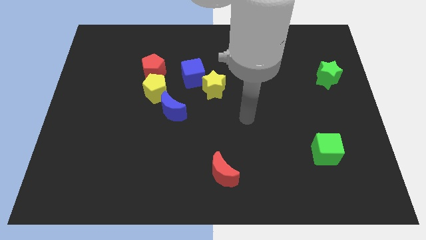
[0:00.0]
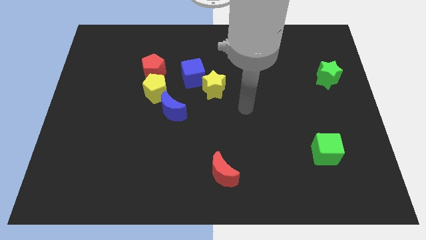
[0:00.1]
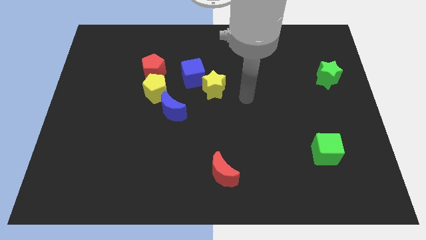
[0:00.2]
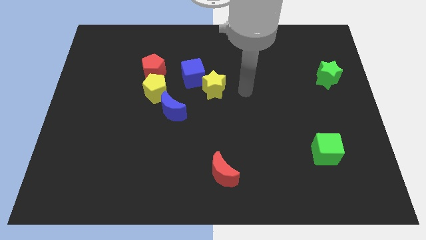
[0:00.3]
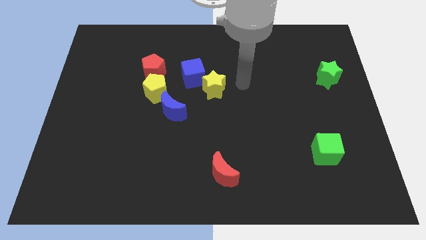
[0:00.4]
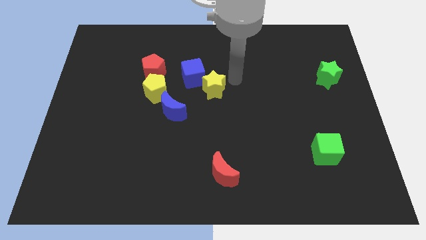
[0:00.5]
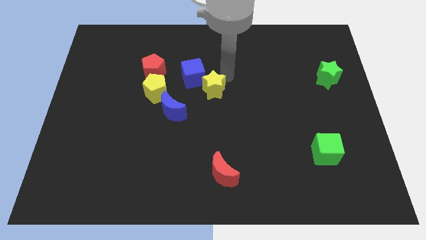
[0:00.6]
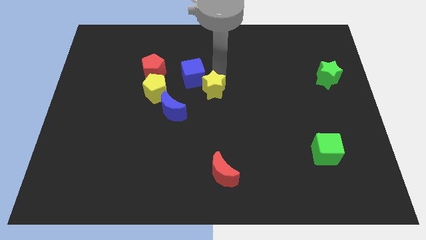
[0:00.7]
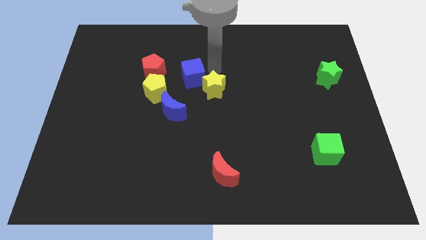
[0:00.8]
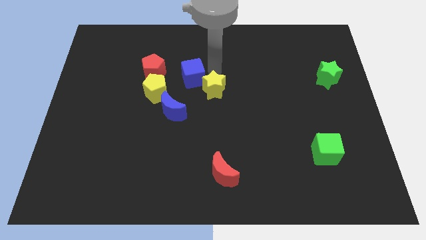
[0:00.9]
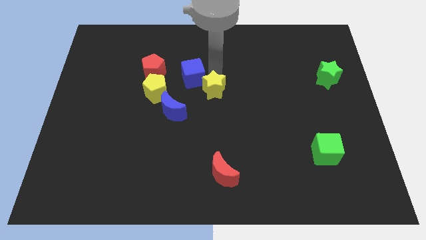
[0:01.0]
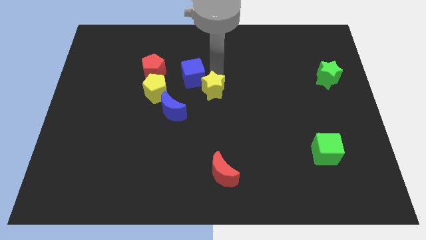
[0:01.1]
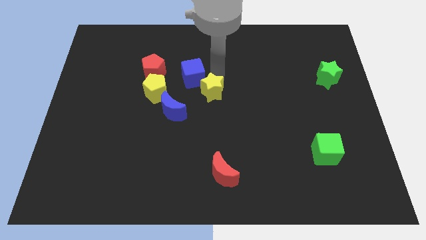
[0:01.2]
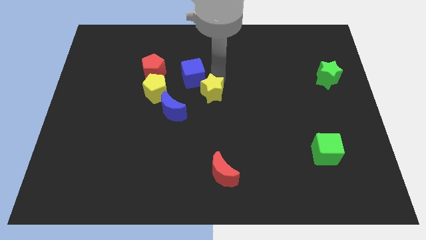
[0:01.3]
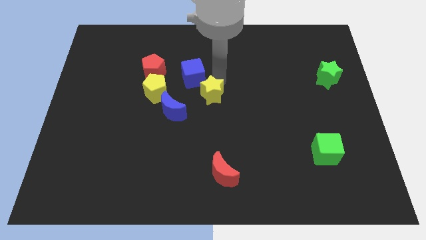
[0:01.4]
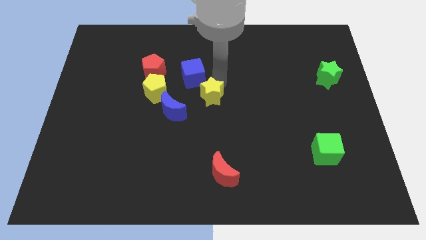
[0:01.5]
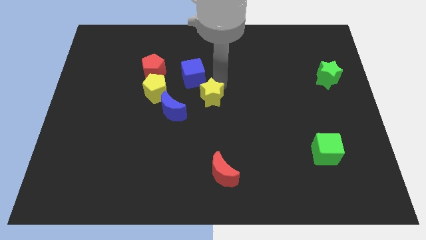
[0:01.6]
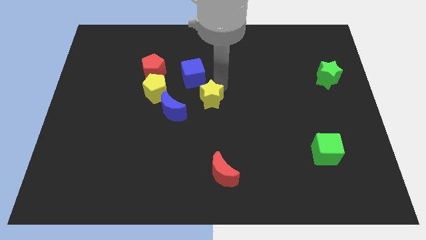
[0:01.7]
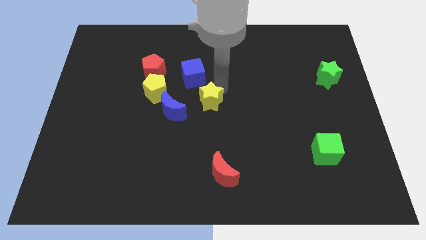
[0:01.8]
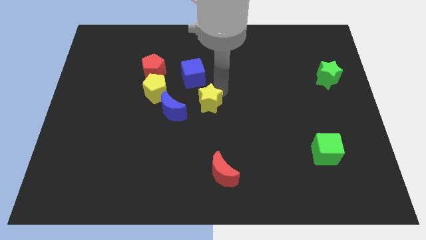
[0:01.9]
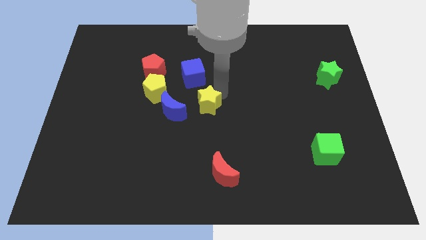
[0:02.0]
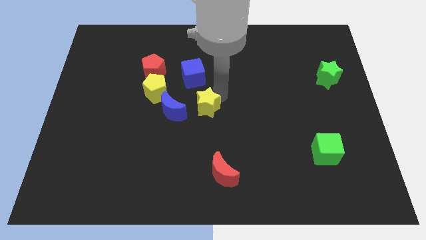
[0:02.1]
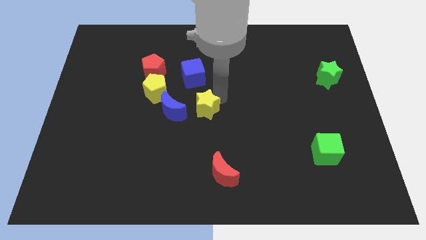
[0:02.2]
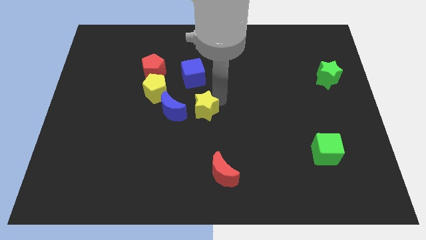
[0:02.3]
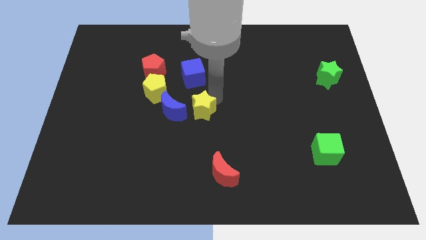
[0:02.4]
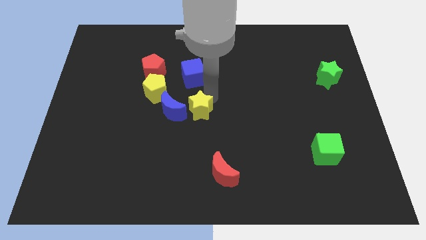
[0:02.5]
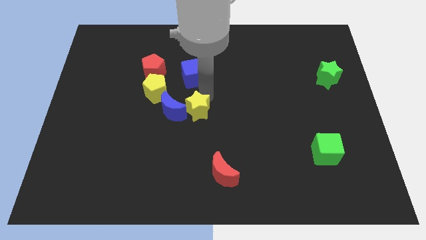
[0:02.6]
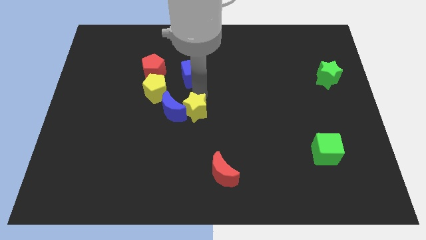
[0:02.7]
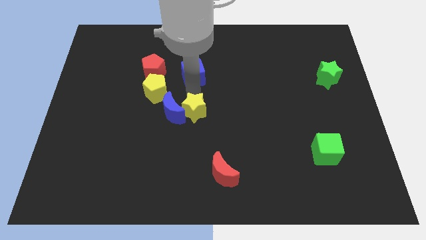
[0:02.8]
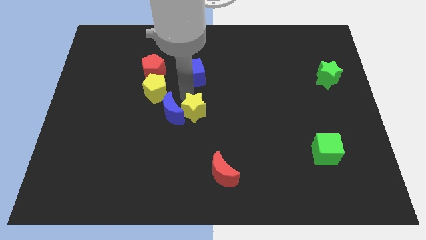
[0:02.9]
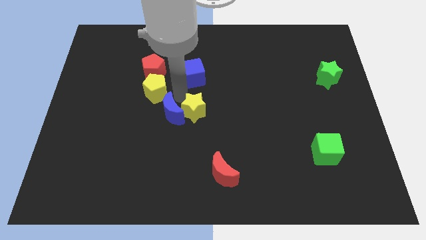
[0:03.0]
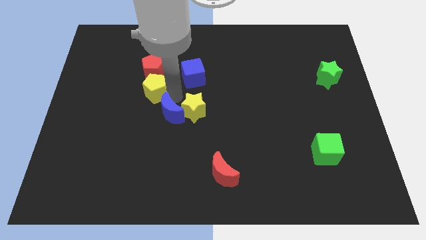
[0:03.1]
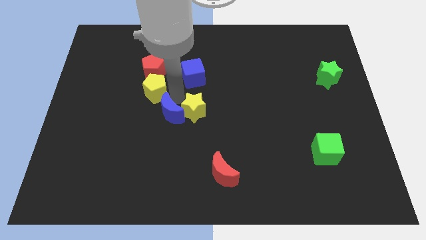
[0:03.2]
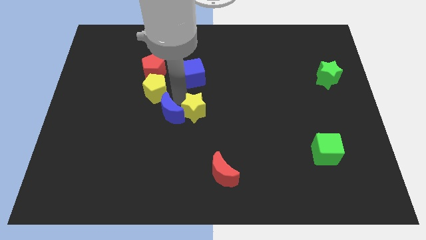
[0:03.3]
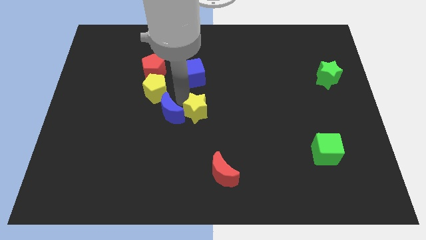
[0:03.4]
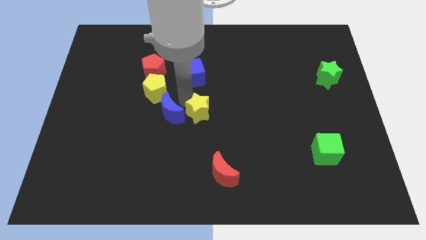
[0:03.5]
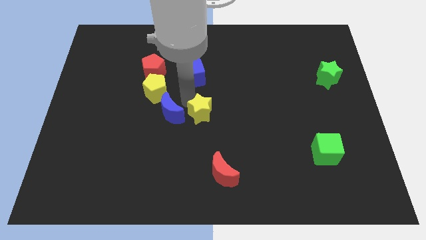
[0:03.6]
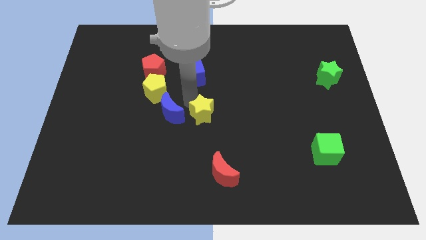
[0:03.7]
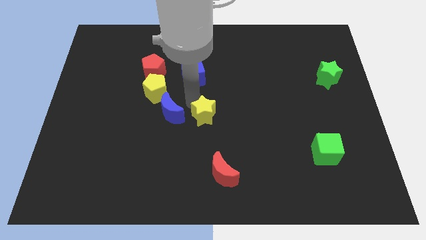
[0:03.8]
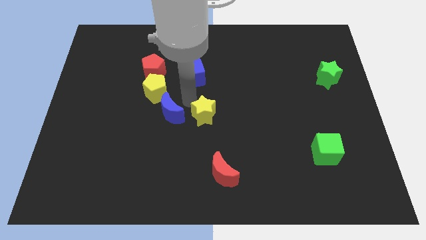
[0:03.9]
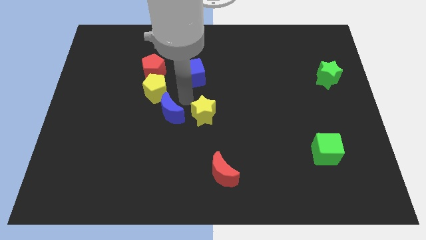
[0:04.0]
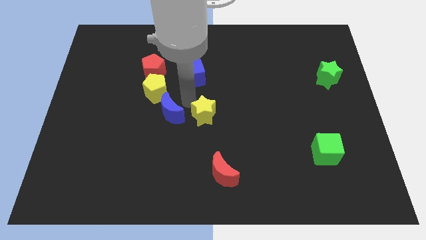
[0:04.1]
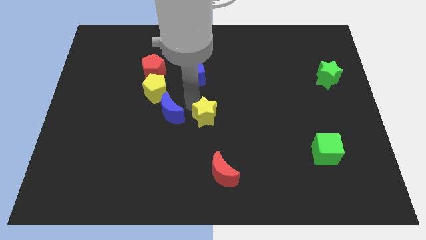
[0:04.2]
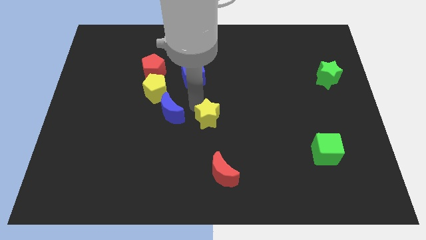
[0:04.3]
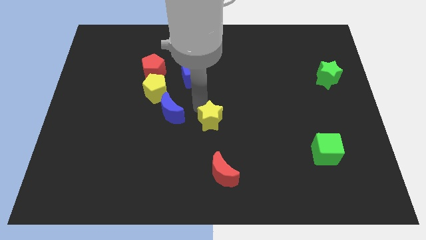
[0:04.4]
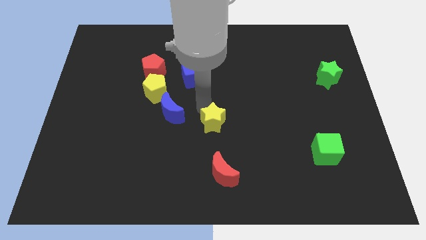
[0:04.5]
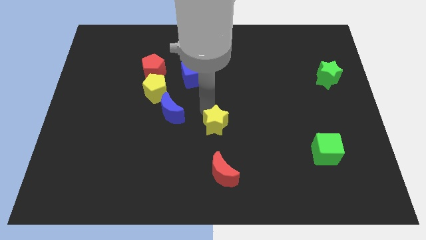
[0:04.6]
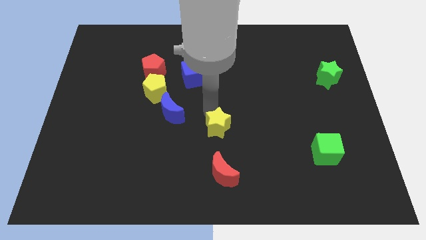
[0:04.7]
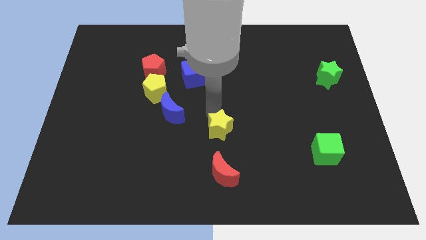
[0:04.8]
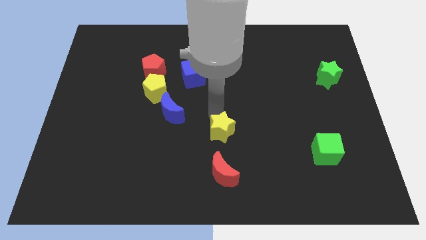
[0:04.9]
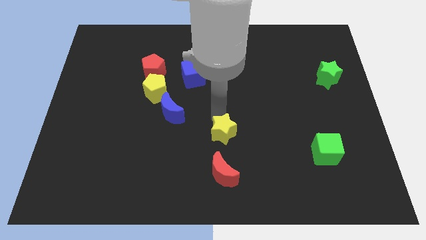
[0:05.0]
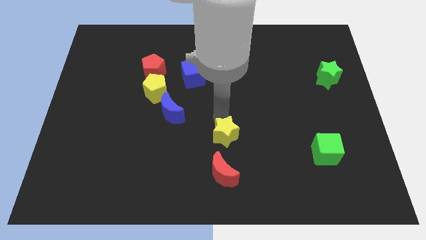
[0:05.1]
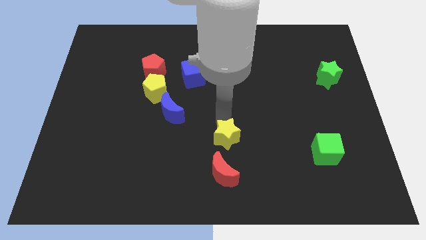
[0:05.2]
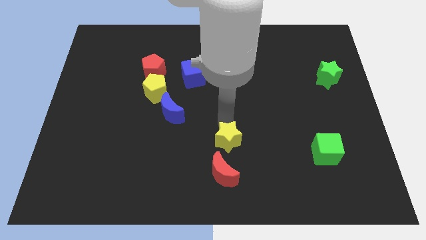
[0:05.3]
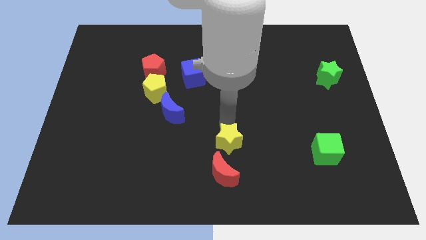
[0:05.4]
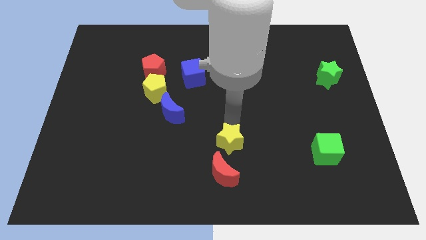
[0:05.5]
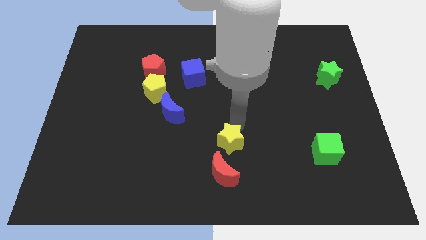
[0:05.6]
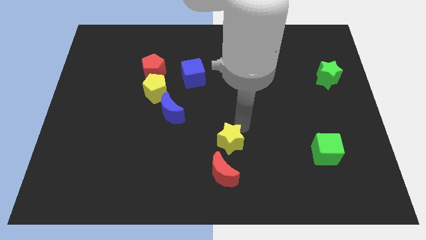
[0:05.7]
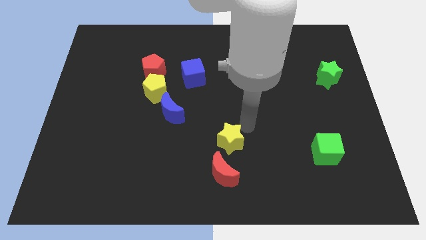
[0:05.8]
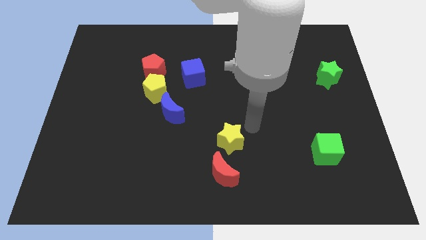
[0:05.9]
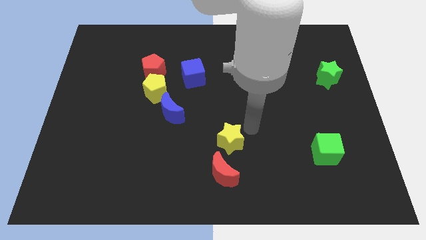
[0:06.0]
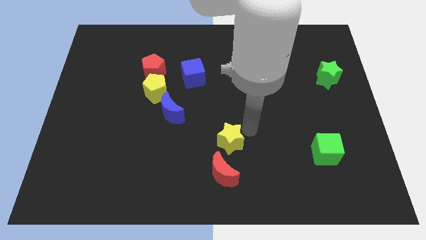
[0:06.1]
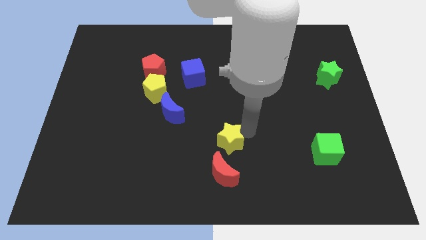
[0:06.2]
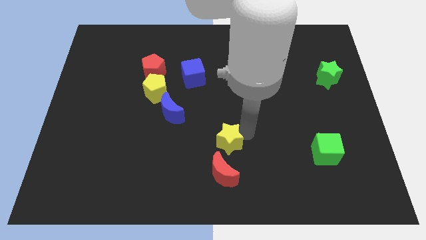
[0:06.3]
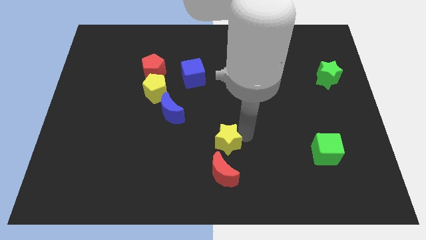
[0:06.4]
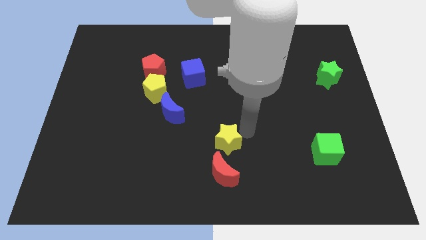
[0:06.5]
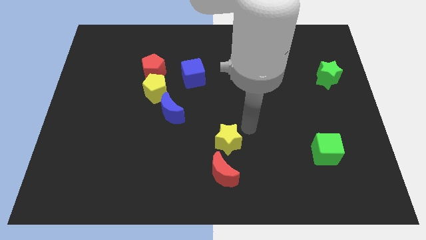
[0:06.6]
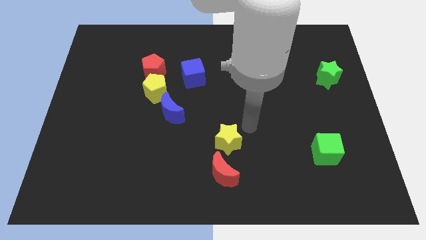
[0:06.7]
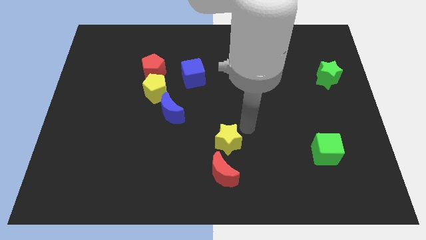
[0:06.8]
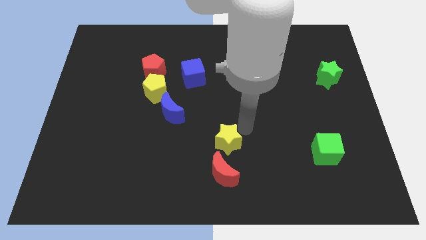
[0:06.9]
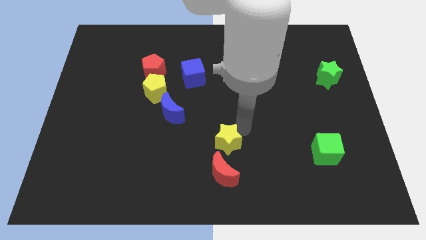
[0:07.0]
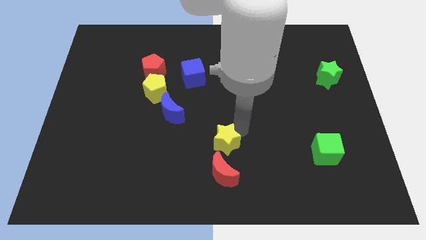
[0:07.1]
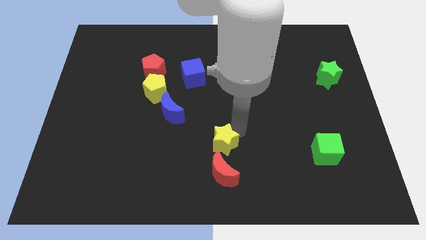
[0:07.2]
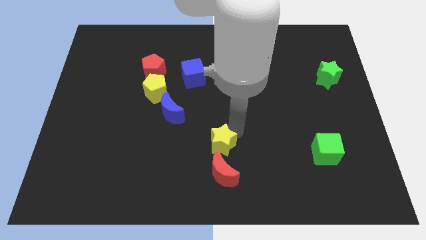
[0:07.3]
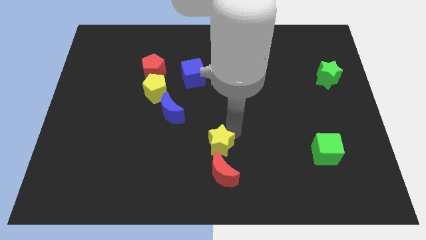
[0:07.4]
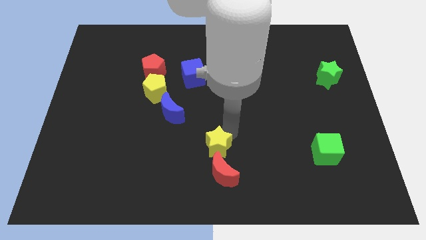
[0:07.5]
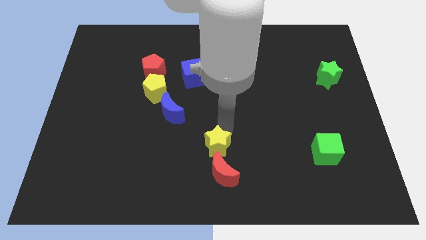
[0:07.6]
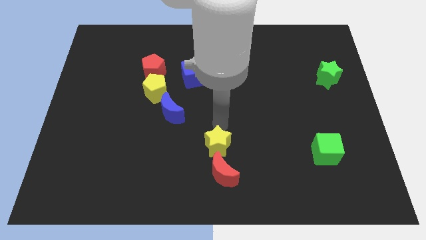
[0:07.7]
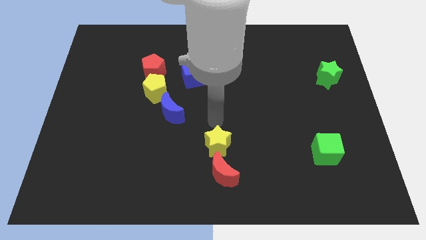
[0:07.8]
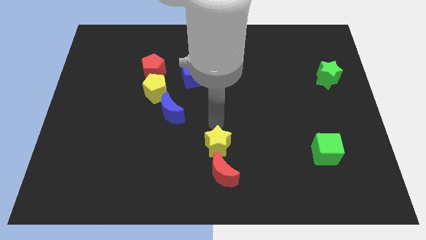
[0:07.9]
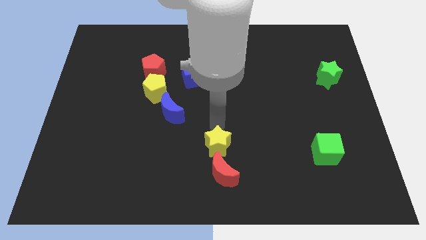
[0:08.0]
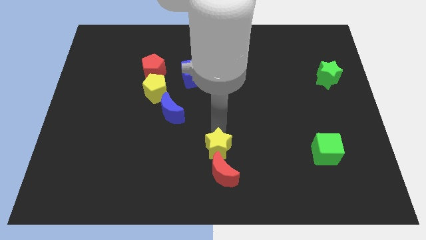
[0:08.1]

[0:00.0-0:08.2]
slide the yellow star to the red moon
